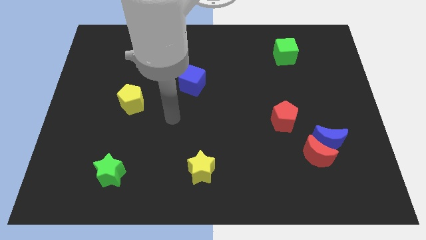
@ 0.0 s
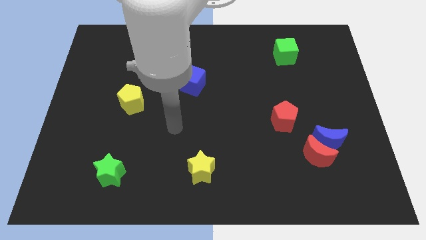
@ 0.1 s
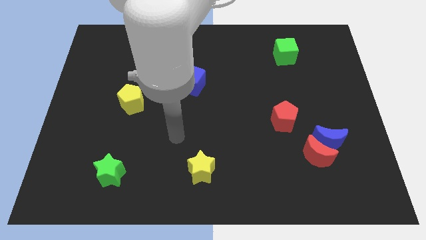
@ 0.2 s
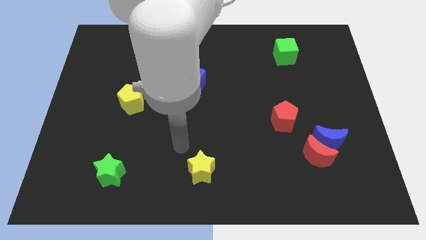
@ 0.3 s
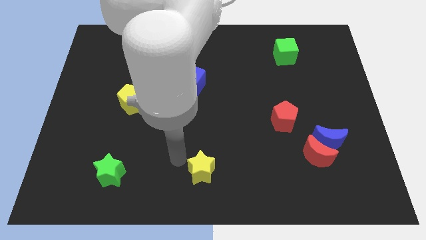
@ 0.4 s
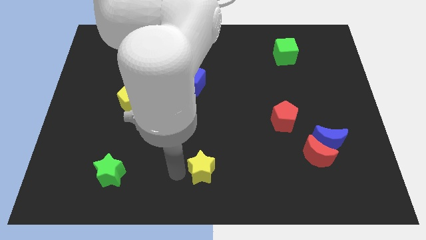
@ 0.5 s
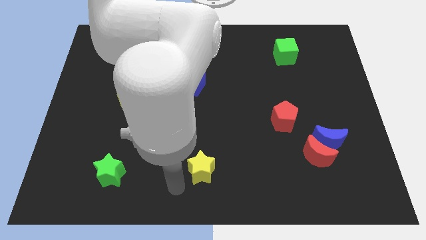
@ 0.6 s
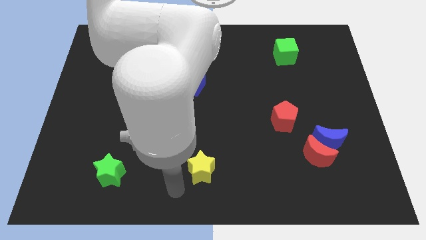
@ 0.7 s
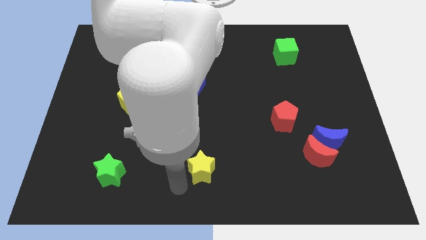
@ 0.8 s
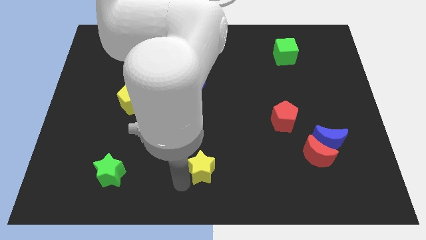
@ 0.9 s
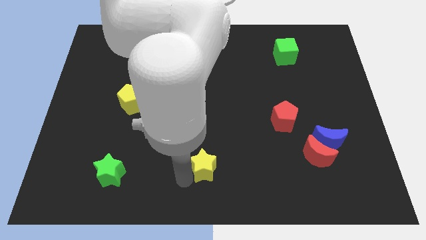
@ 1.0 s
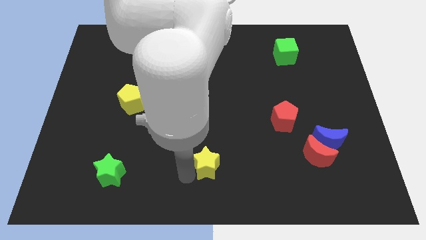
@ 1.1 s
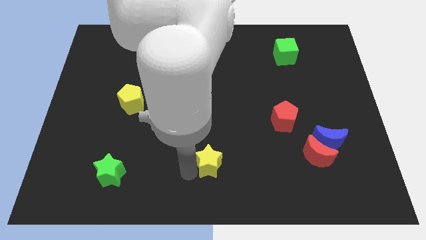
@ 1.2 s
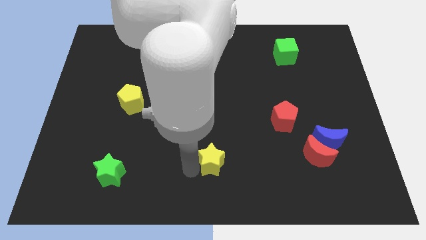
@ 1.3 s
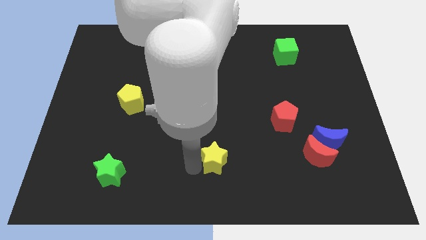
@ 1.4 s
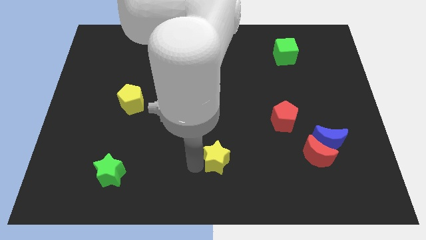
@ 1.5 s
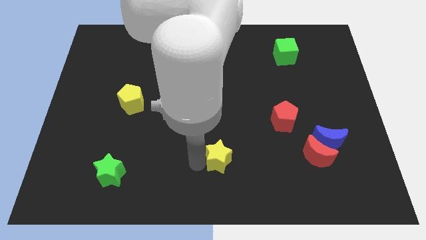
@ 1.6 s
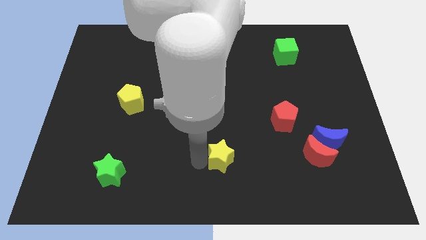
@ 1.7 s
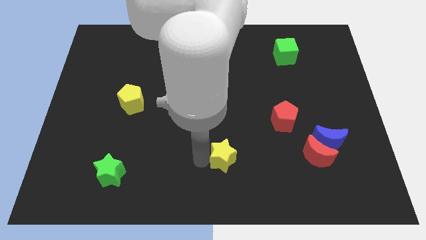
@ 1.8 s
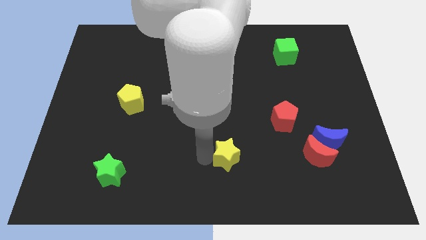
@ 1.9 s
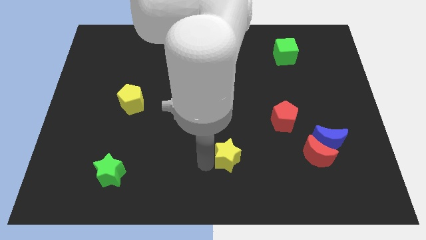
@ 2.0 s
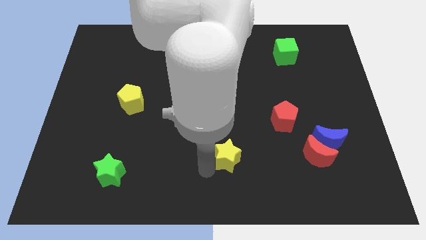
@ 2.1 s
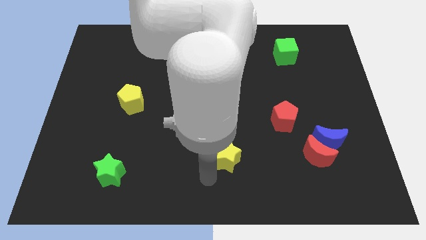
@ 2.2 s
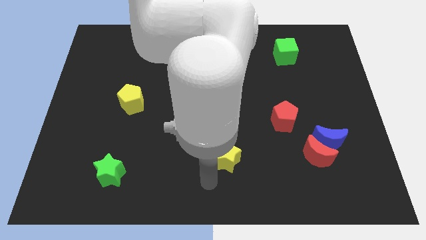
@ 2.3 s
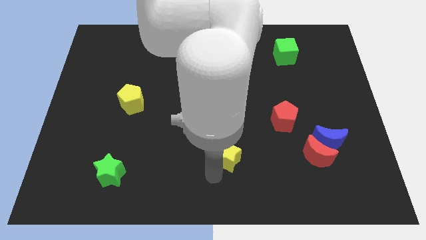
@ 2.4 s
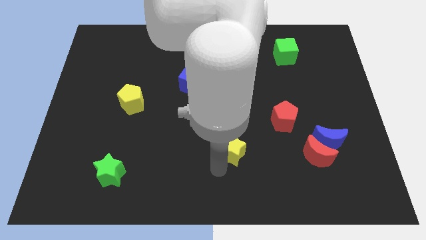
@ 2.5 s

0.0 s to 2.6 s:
slide the yellow star a little bit up and to the right diagonally

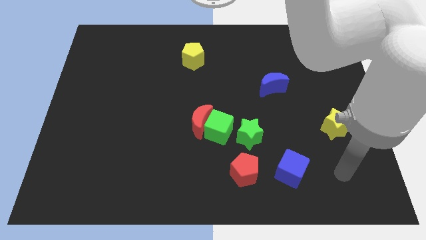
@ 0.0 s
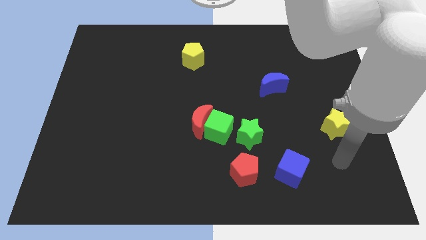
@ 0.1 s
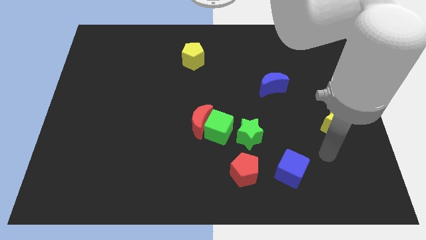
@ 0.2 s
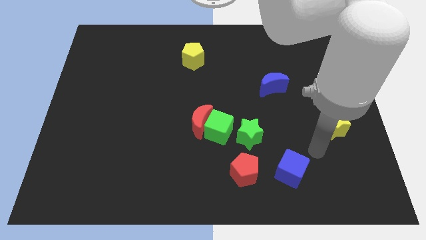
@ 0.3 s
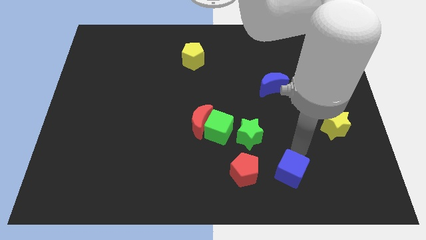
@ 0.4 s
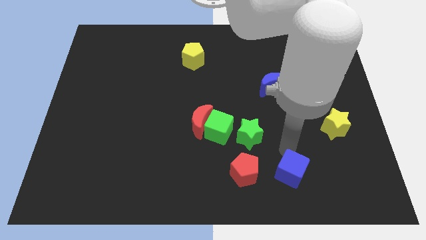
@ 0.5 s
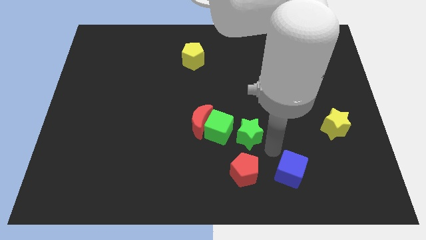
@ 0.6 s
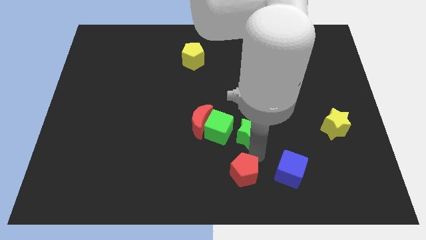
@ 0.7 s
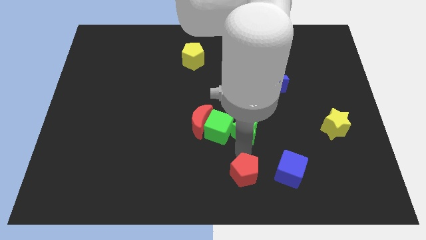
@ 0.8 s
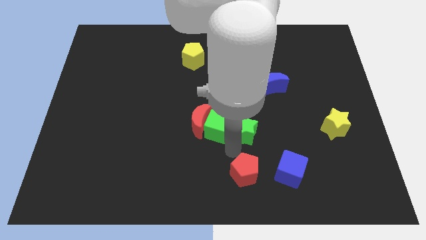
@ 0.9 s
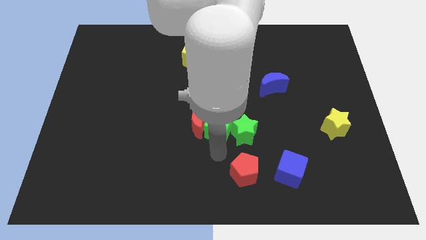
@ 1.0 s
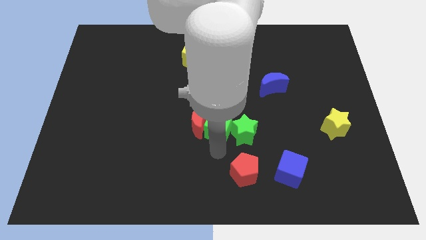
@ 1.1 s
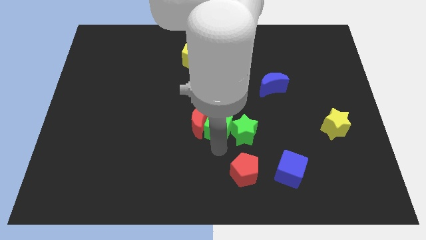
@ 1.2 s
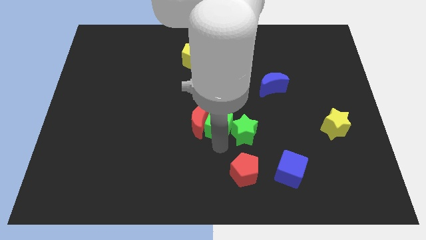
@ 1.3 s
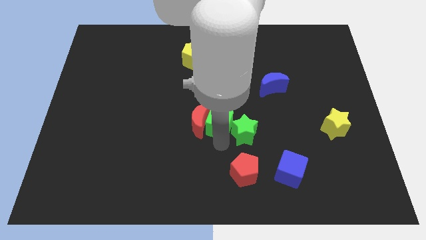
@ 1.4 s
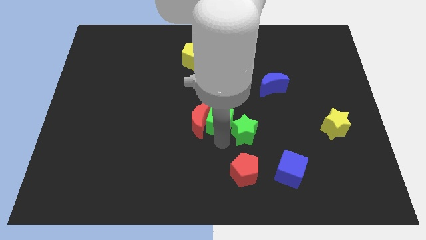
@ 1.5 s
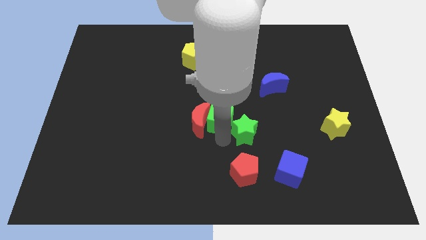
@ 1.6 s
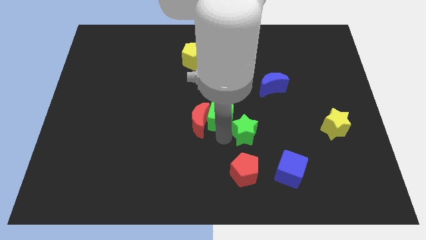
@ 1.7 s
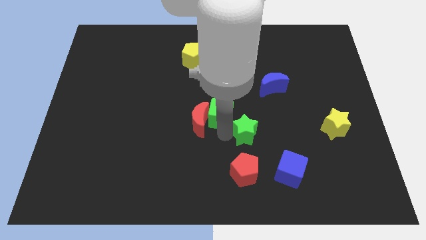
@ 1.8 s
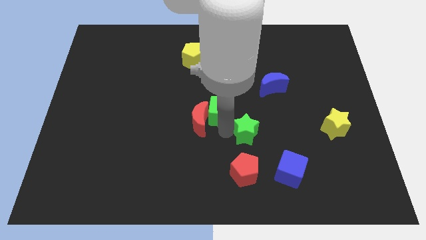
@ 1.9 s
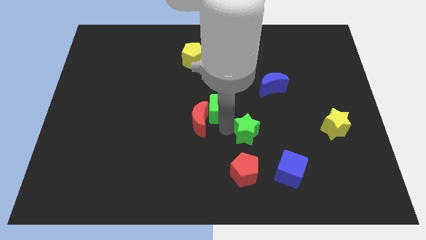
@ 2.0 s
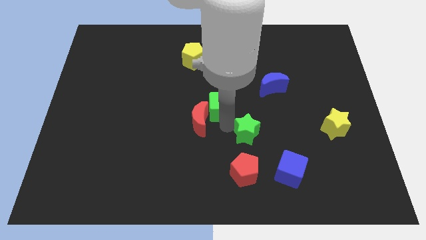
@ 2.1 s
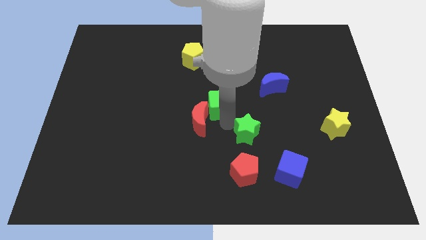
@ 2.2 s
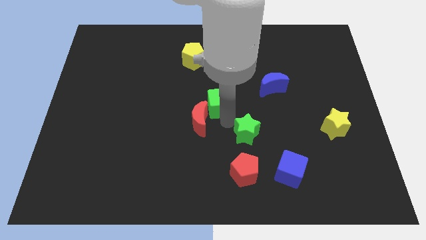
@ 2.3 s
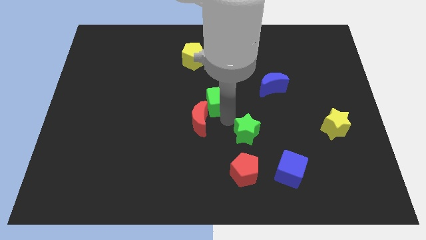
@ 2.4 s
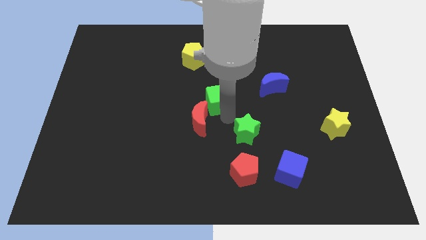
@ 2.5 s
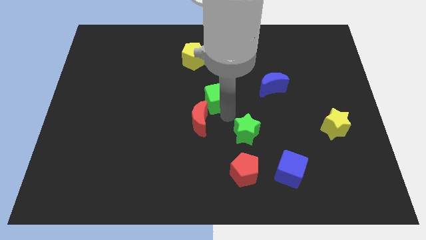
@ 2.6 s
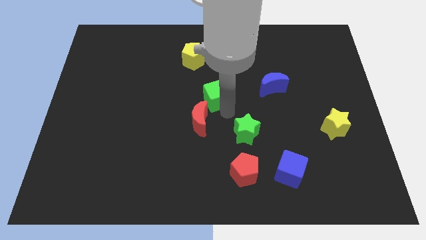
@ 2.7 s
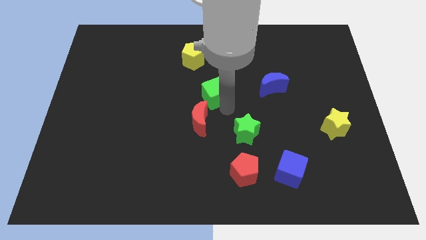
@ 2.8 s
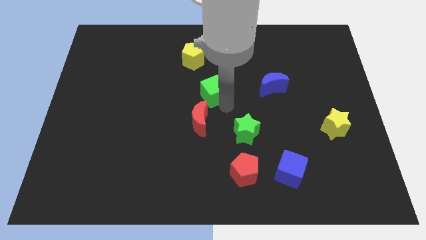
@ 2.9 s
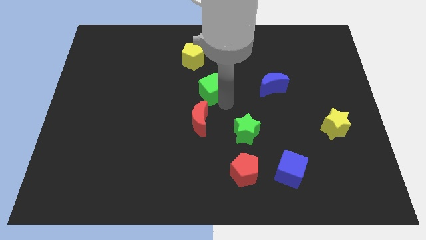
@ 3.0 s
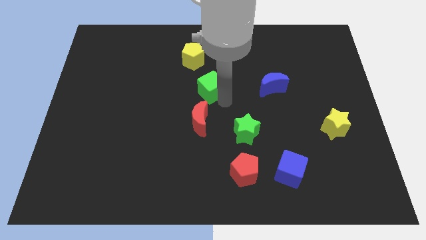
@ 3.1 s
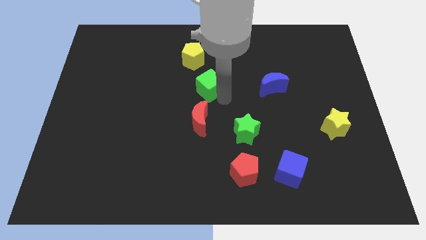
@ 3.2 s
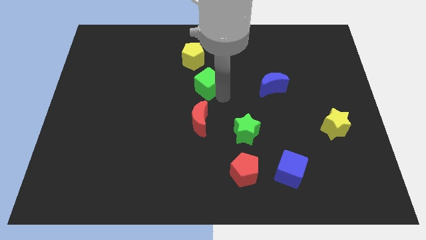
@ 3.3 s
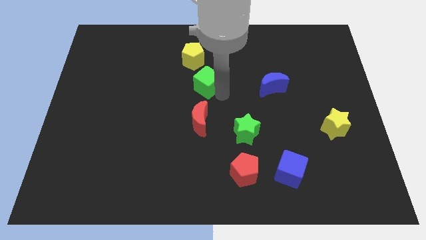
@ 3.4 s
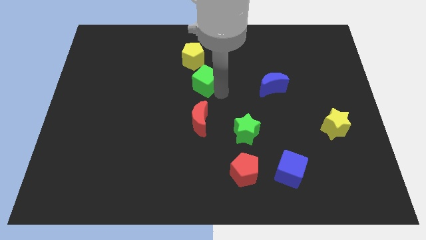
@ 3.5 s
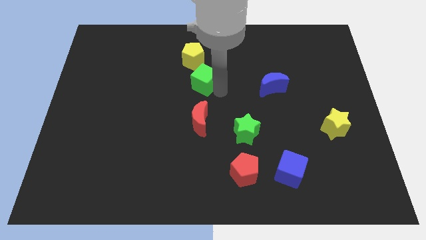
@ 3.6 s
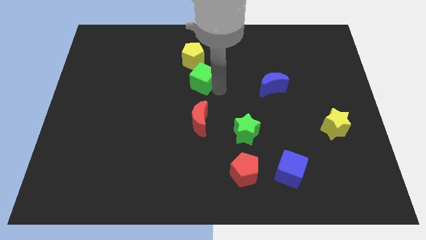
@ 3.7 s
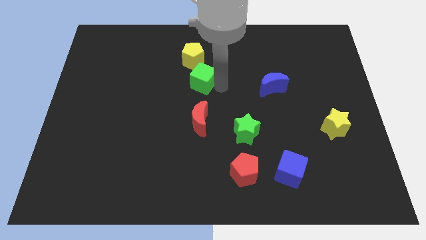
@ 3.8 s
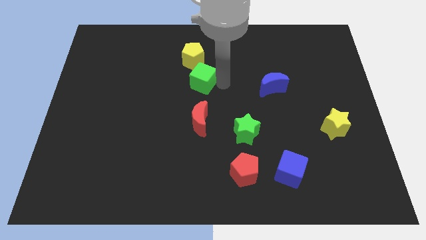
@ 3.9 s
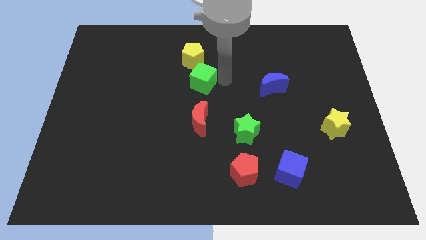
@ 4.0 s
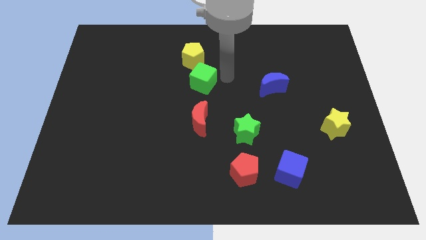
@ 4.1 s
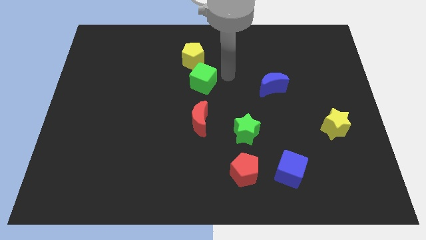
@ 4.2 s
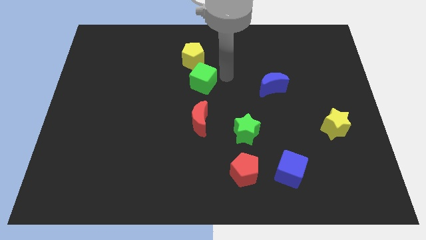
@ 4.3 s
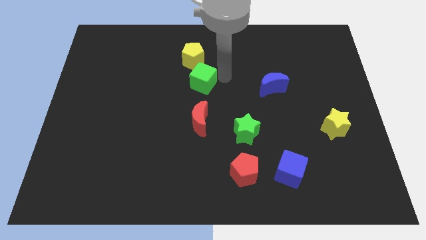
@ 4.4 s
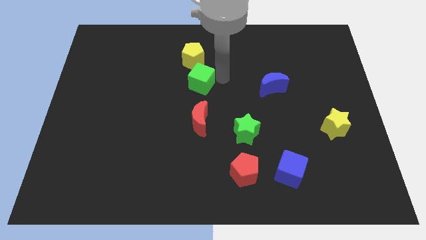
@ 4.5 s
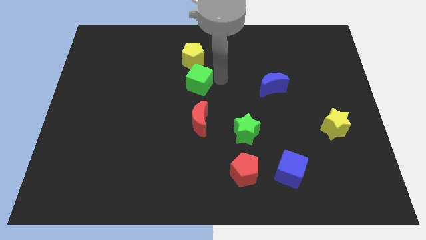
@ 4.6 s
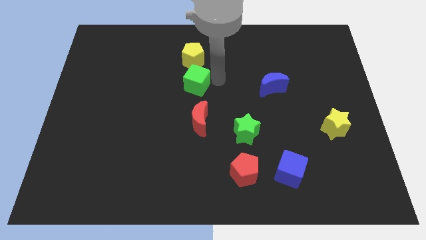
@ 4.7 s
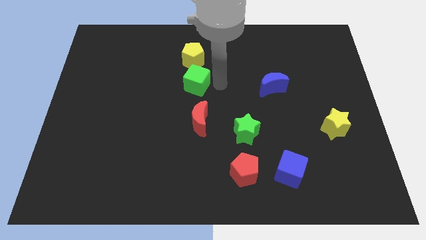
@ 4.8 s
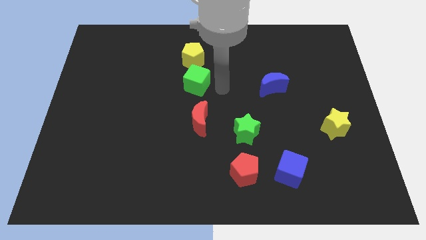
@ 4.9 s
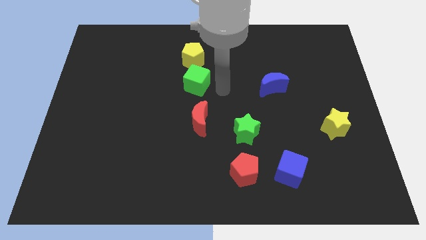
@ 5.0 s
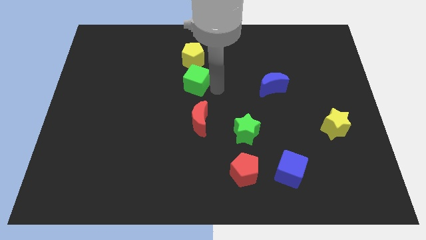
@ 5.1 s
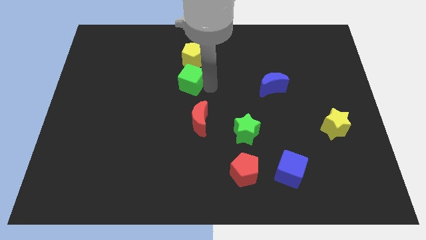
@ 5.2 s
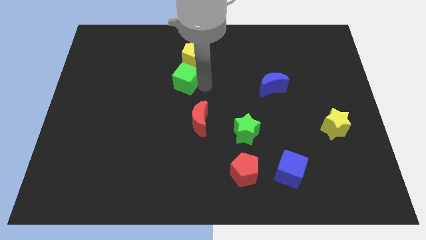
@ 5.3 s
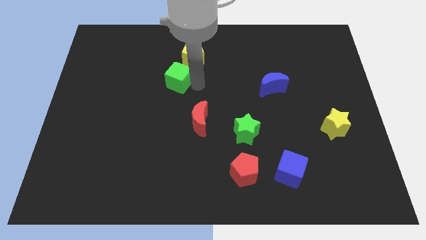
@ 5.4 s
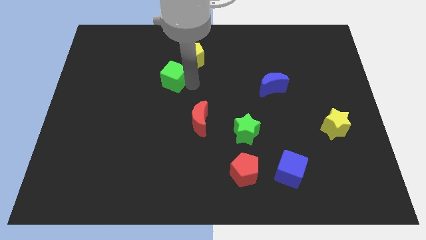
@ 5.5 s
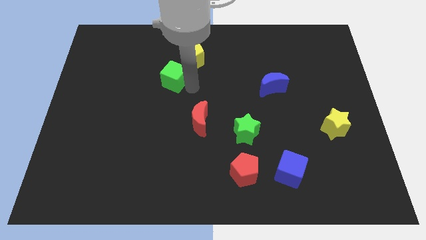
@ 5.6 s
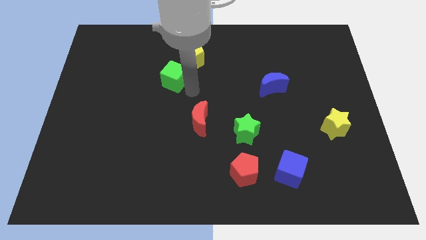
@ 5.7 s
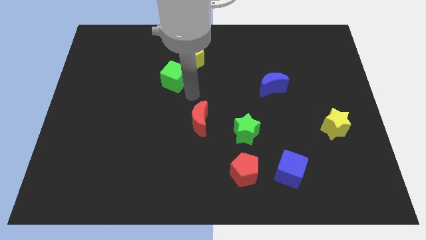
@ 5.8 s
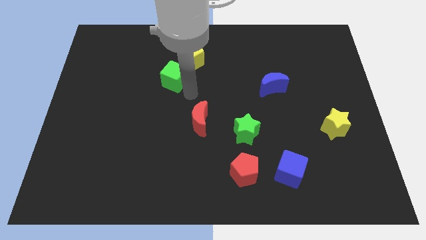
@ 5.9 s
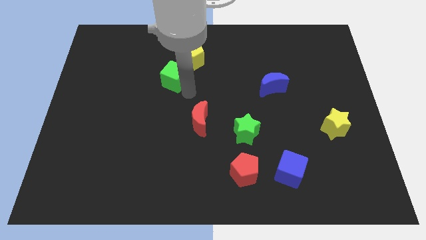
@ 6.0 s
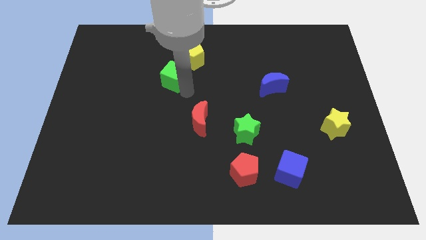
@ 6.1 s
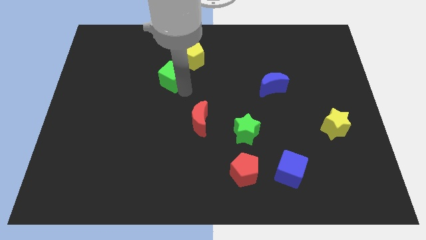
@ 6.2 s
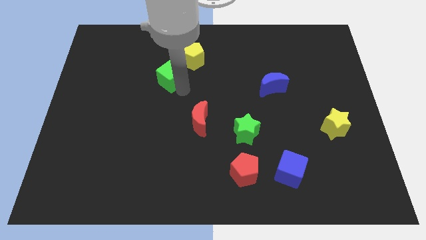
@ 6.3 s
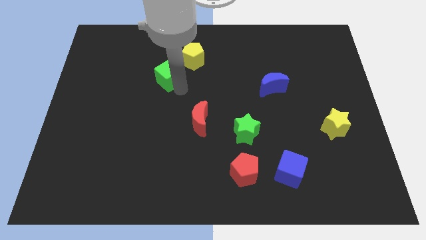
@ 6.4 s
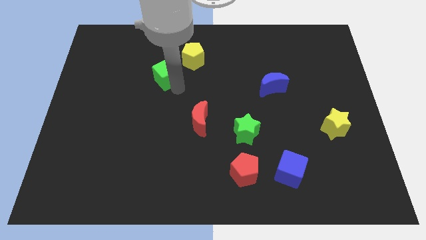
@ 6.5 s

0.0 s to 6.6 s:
move the green cube upwards and to the left
